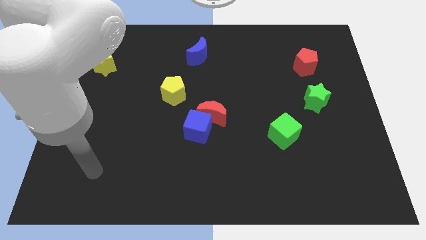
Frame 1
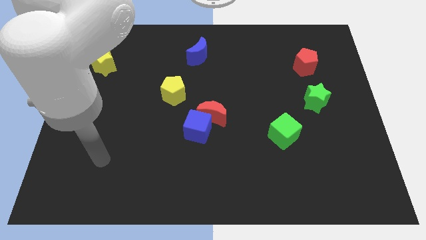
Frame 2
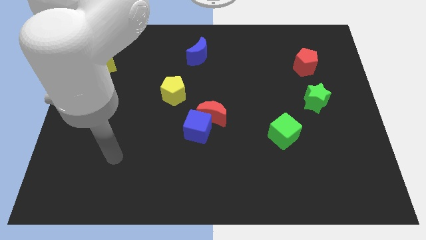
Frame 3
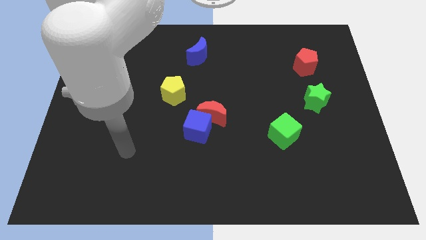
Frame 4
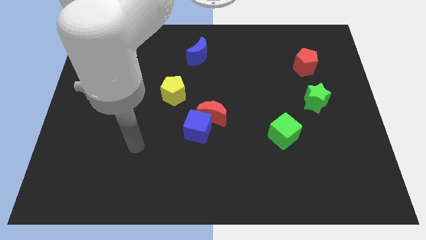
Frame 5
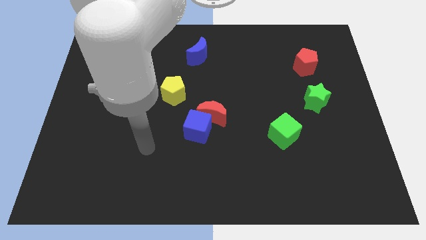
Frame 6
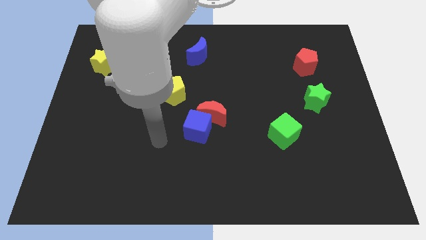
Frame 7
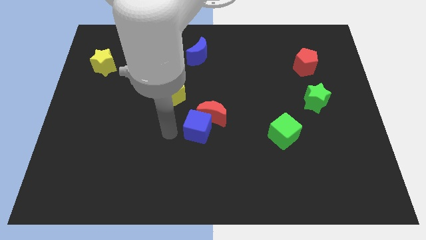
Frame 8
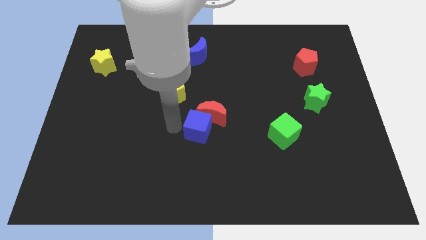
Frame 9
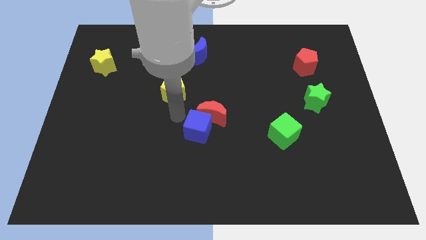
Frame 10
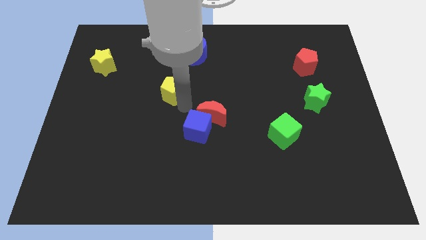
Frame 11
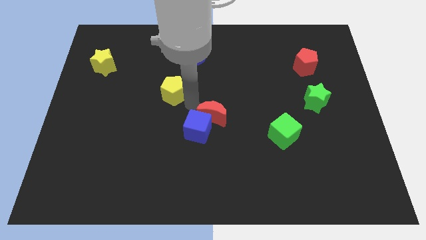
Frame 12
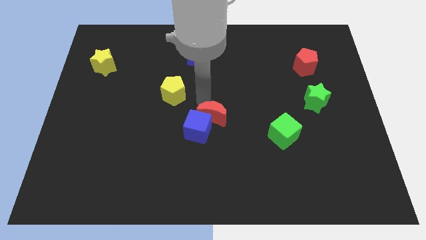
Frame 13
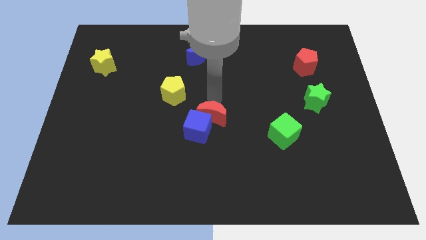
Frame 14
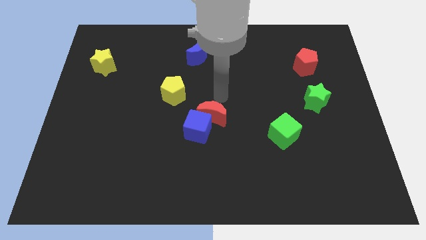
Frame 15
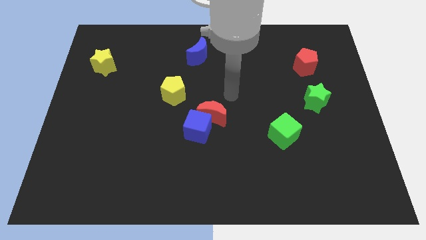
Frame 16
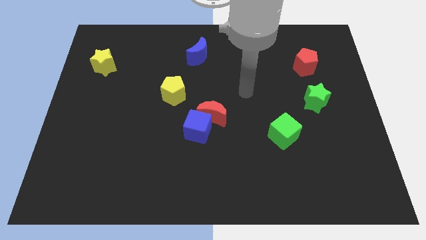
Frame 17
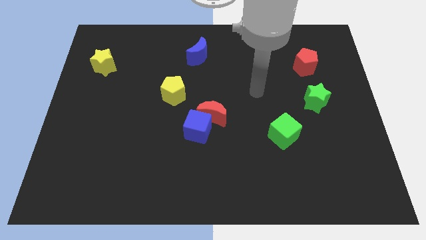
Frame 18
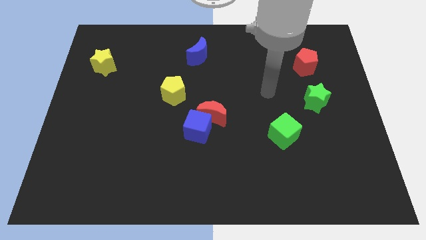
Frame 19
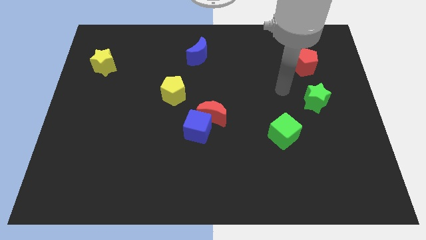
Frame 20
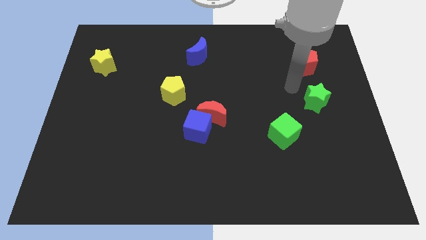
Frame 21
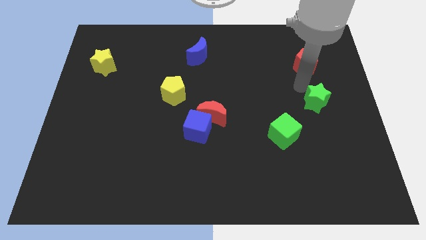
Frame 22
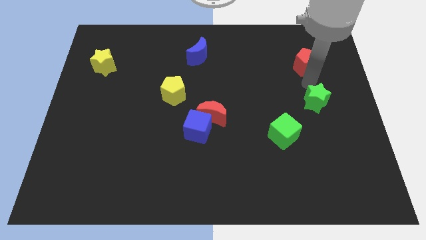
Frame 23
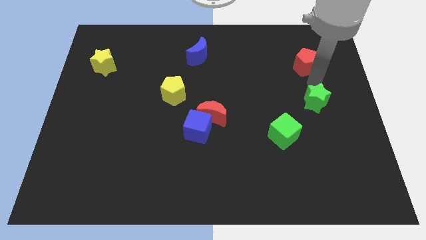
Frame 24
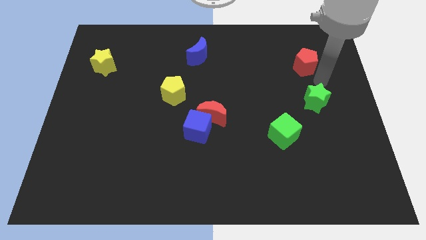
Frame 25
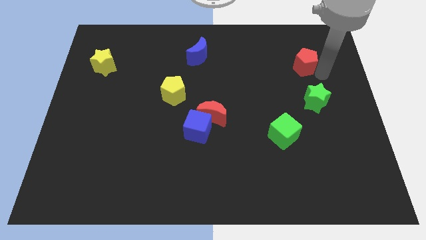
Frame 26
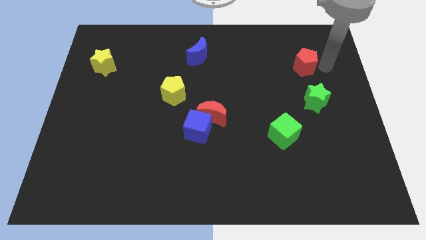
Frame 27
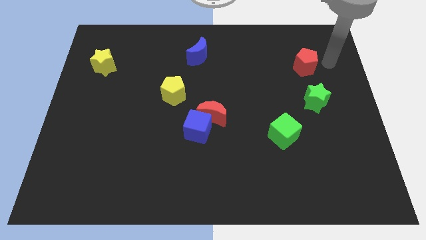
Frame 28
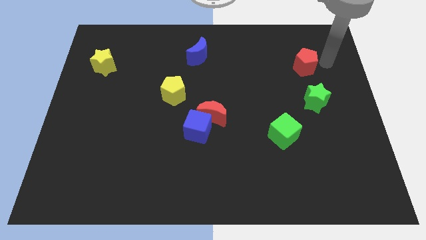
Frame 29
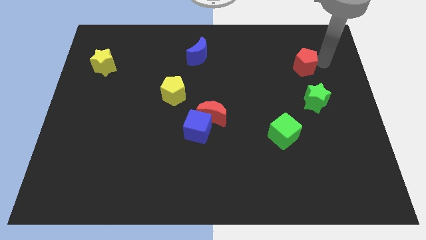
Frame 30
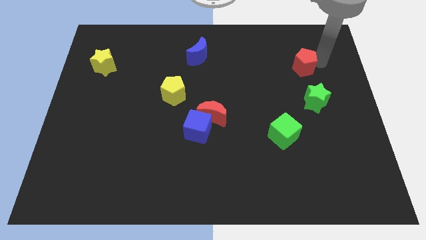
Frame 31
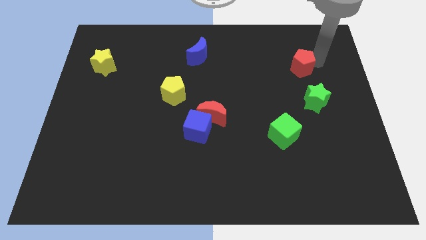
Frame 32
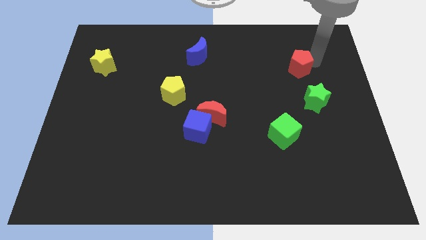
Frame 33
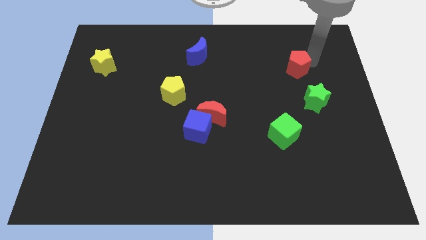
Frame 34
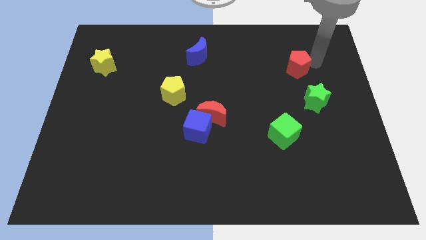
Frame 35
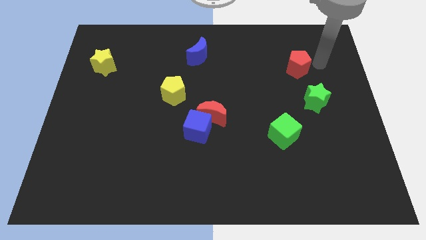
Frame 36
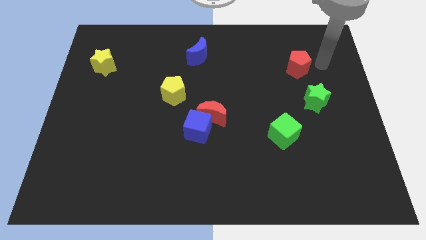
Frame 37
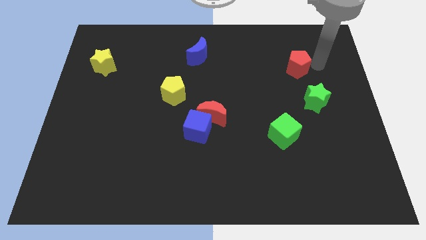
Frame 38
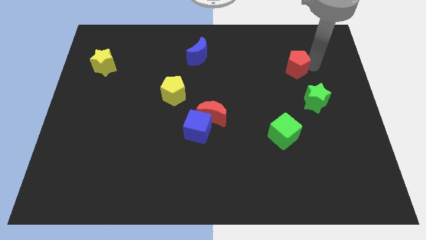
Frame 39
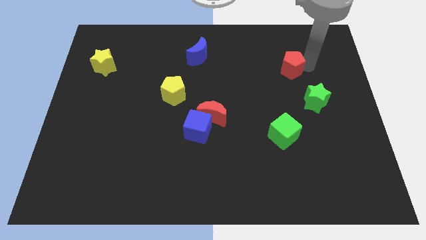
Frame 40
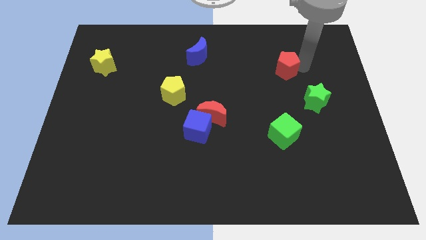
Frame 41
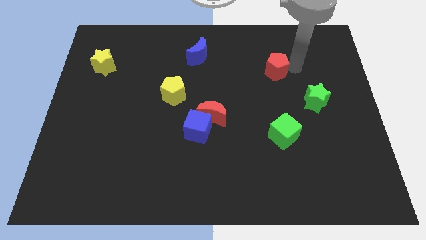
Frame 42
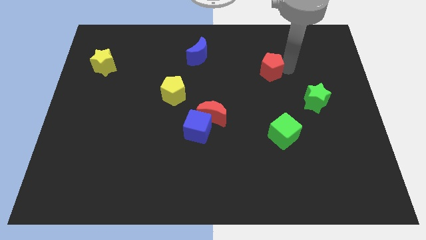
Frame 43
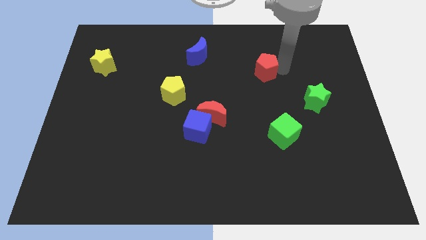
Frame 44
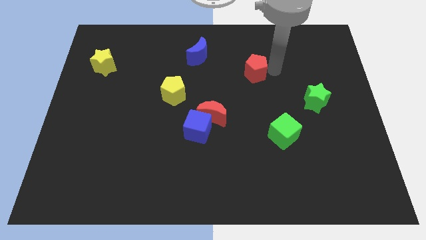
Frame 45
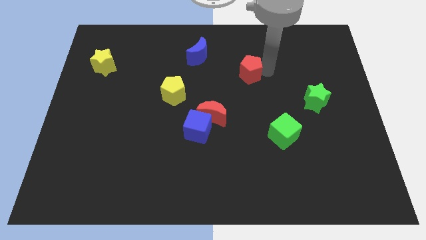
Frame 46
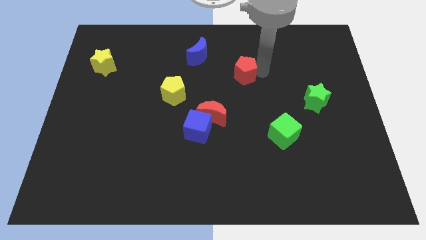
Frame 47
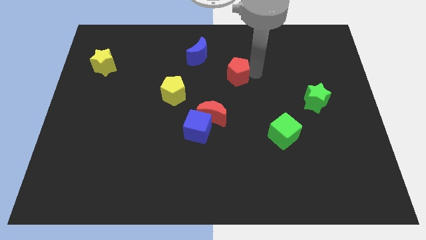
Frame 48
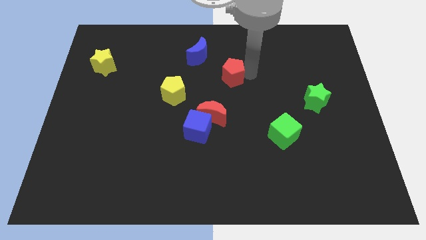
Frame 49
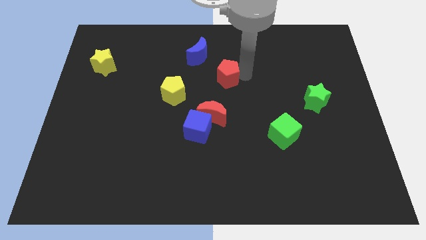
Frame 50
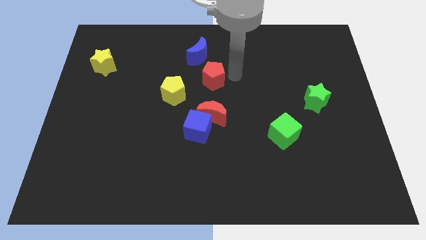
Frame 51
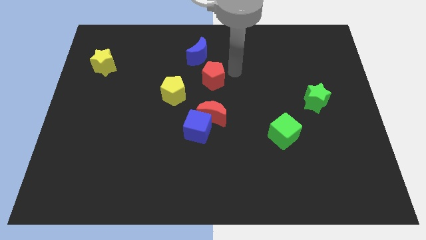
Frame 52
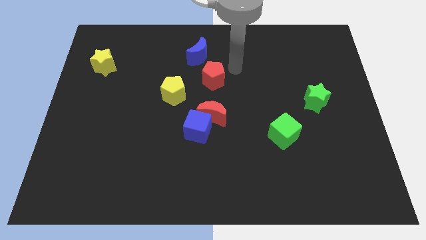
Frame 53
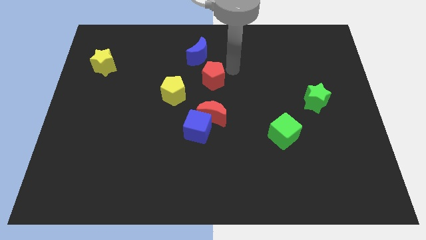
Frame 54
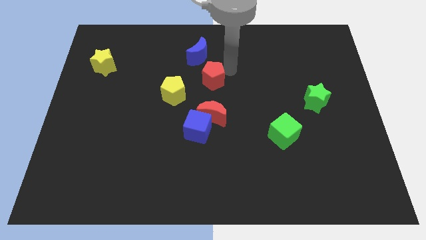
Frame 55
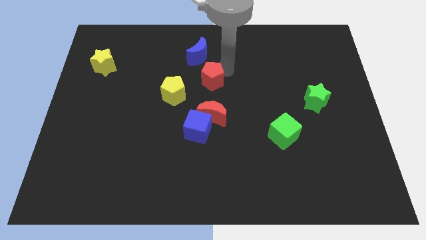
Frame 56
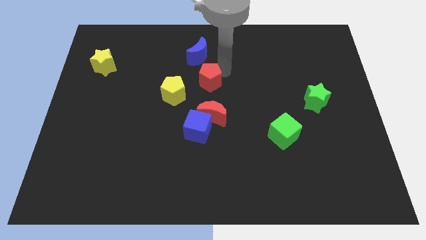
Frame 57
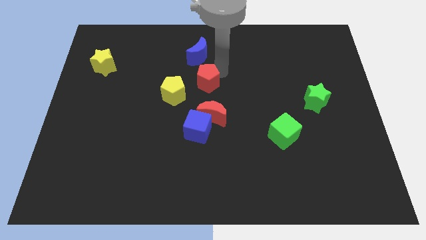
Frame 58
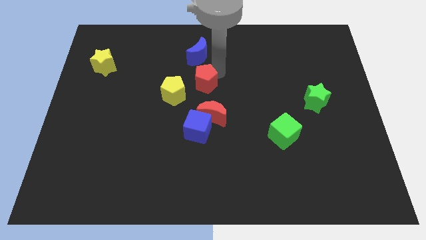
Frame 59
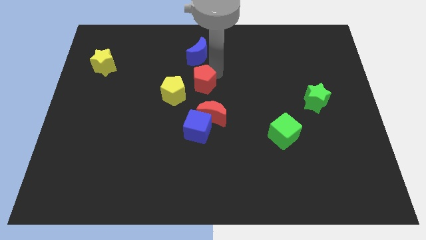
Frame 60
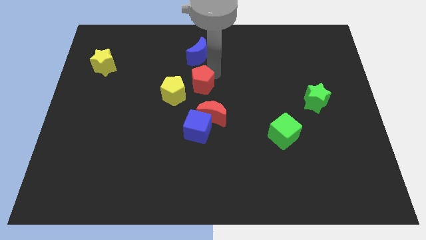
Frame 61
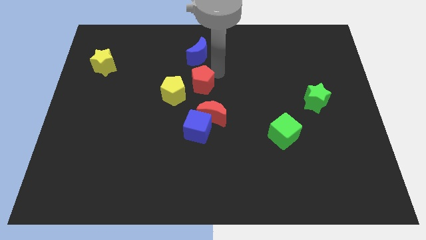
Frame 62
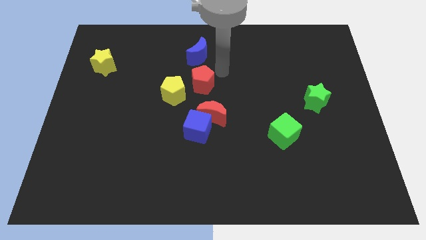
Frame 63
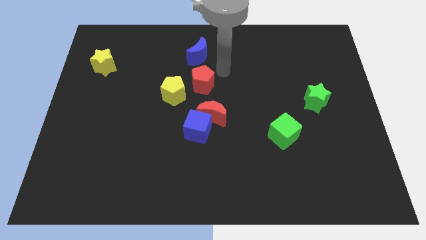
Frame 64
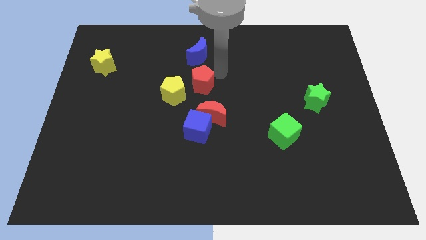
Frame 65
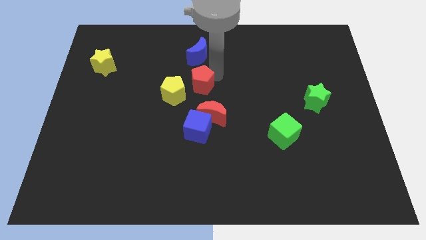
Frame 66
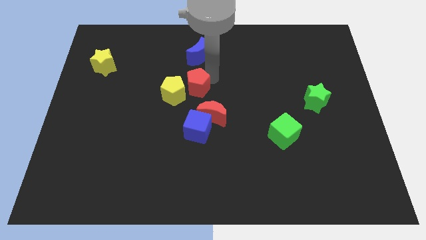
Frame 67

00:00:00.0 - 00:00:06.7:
slide the red pentagon towards the yellow pentagon

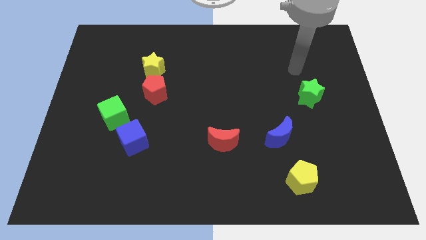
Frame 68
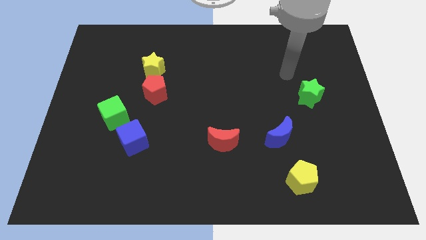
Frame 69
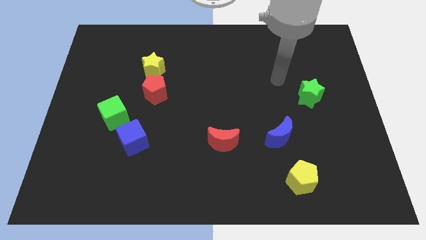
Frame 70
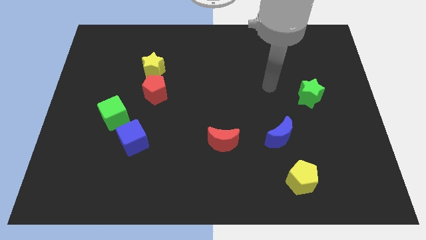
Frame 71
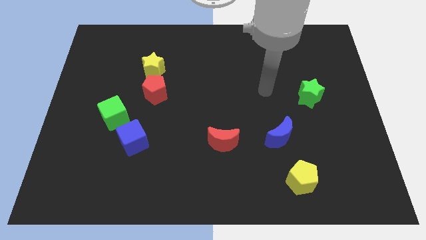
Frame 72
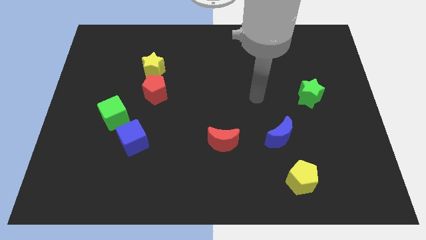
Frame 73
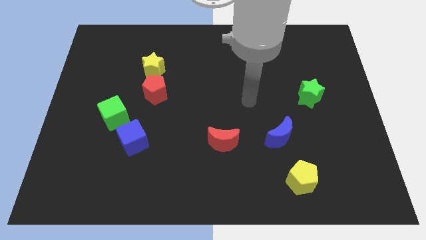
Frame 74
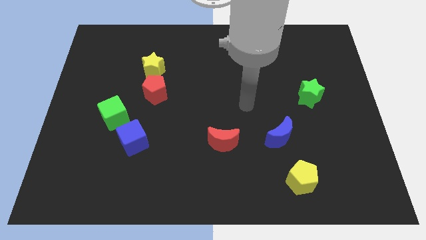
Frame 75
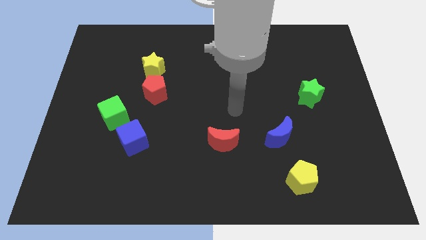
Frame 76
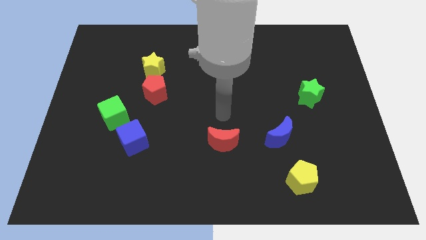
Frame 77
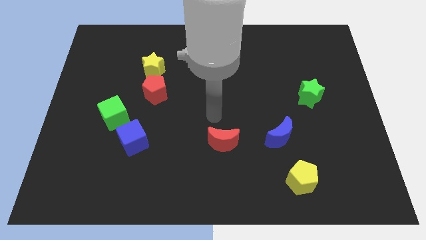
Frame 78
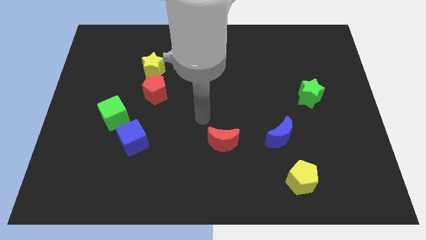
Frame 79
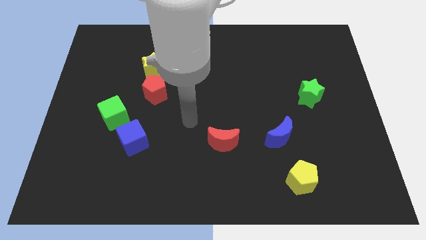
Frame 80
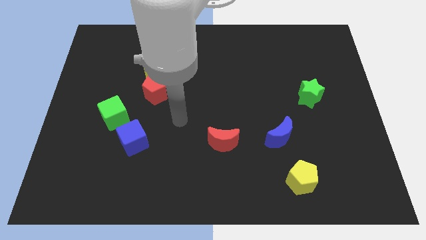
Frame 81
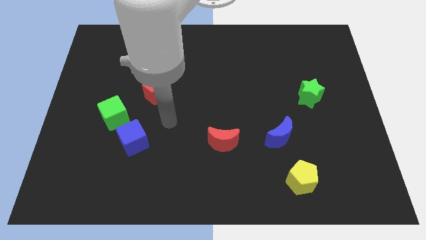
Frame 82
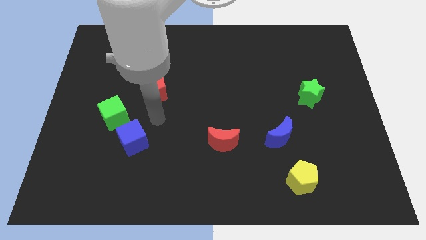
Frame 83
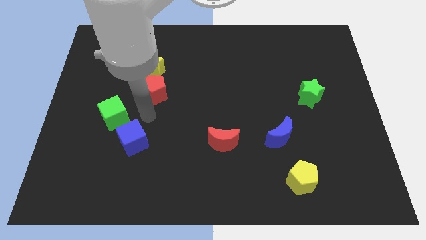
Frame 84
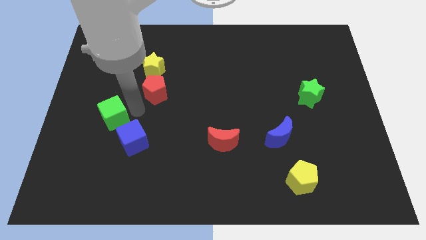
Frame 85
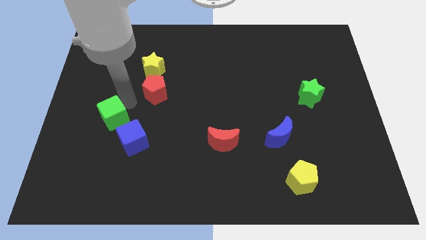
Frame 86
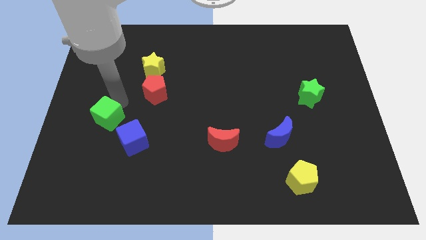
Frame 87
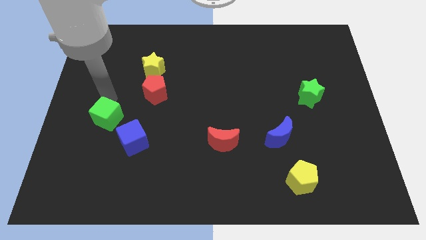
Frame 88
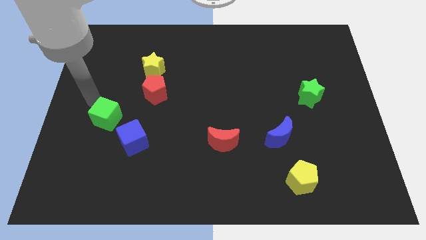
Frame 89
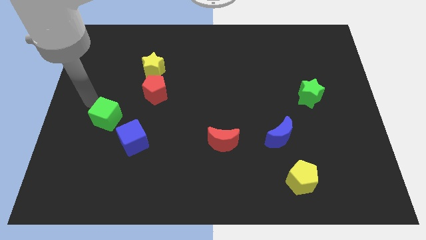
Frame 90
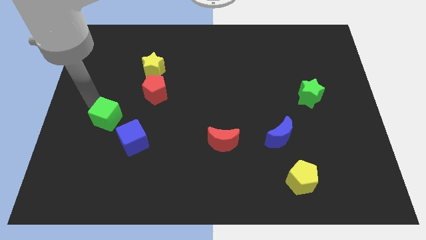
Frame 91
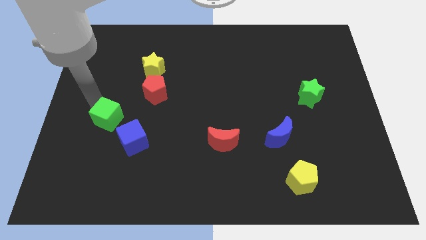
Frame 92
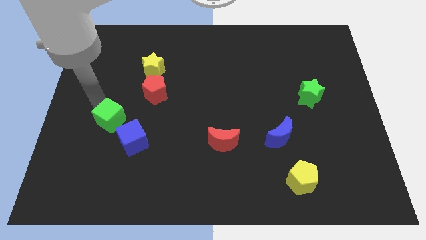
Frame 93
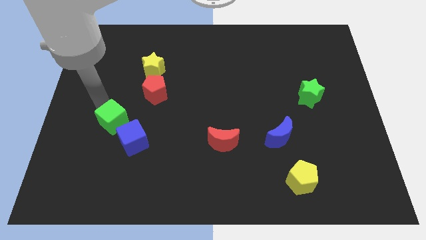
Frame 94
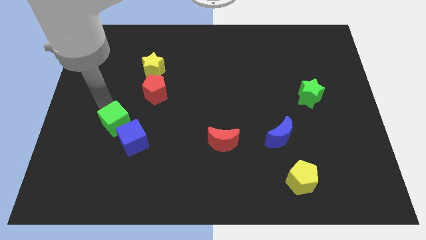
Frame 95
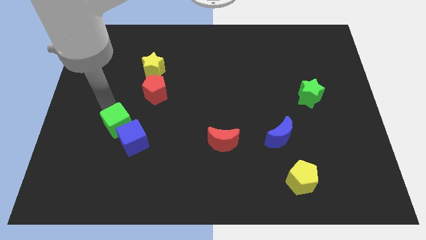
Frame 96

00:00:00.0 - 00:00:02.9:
push the green cube next to the blue cube
